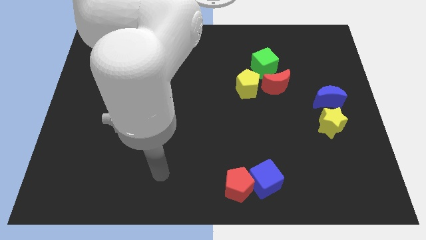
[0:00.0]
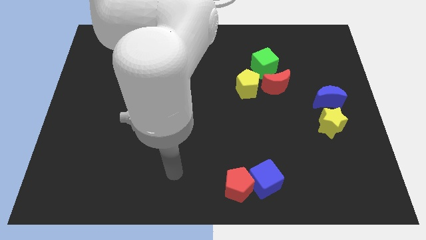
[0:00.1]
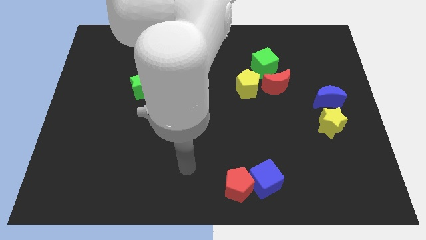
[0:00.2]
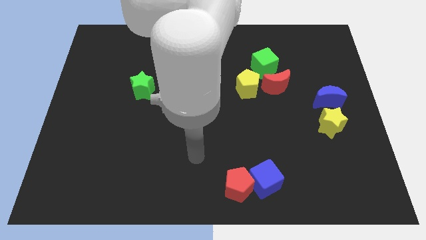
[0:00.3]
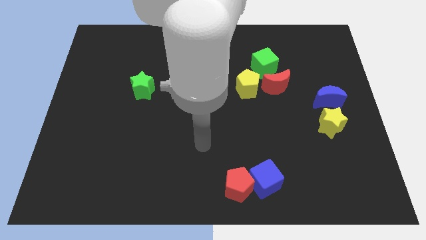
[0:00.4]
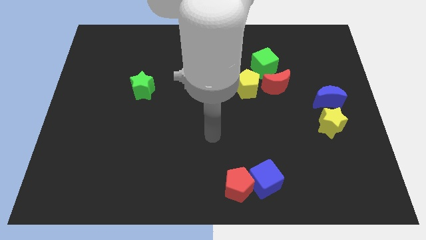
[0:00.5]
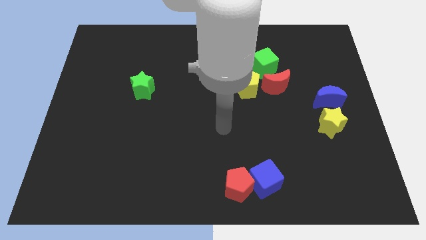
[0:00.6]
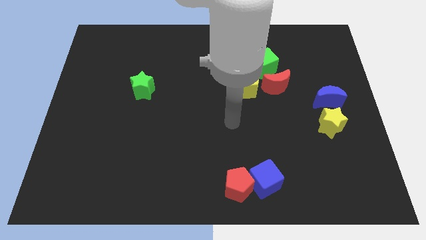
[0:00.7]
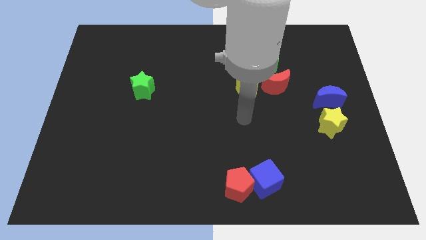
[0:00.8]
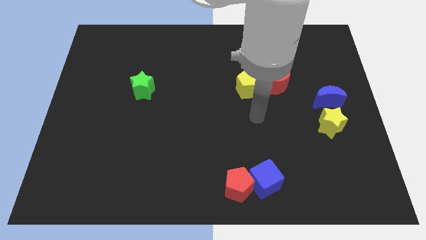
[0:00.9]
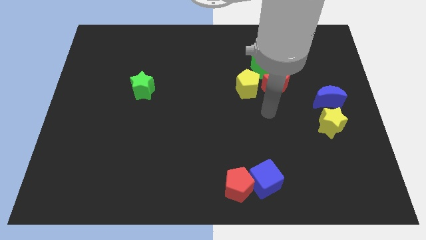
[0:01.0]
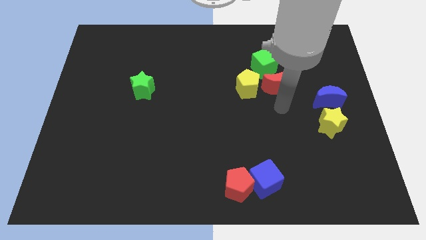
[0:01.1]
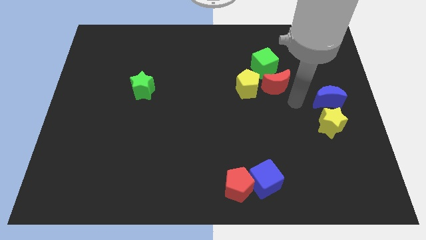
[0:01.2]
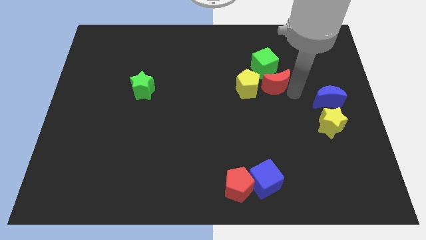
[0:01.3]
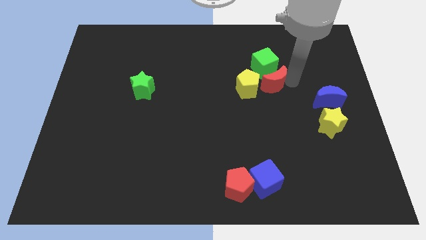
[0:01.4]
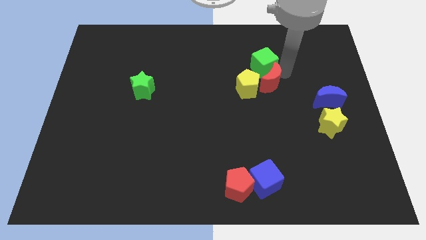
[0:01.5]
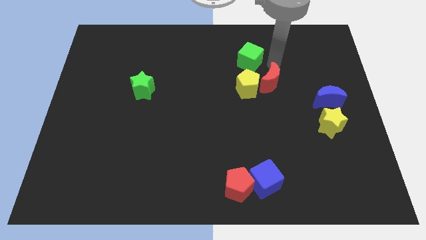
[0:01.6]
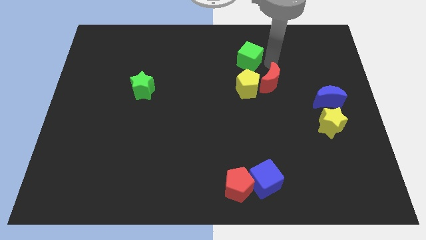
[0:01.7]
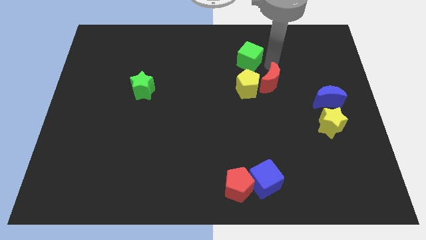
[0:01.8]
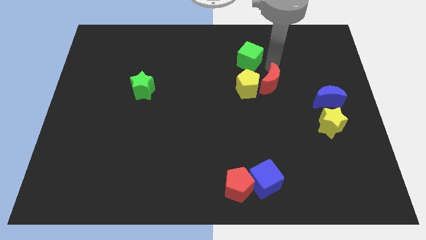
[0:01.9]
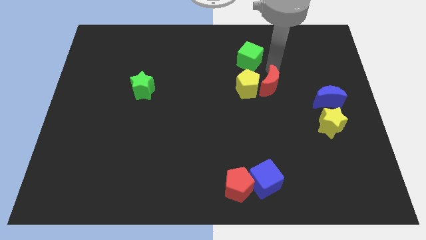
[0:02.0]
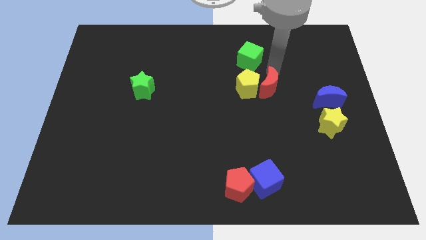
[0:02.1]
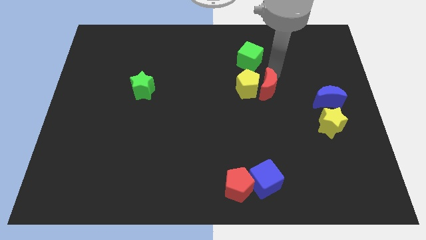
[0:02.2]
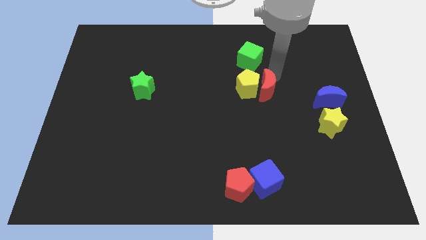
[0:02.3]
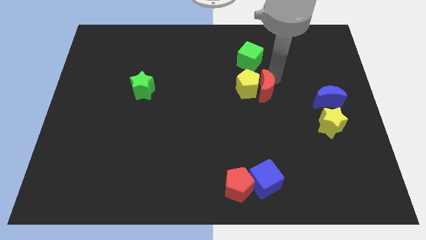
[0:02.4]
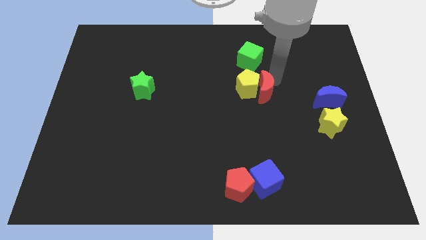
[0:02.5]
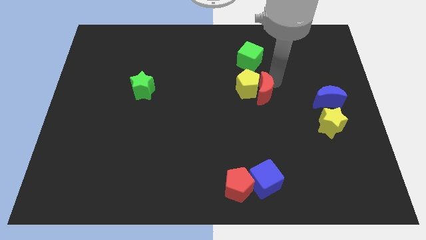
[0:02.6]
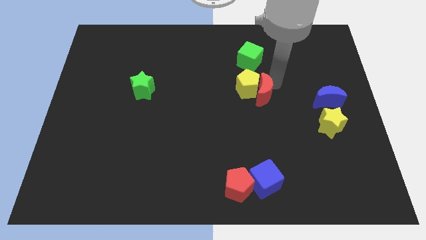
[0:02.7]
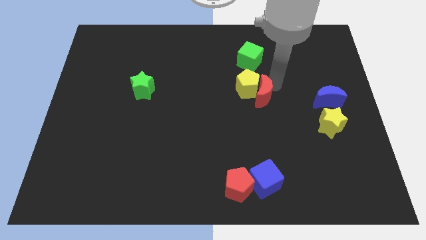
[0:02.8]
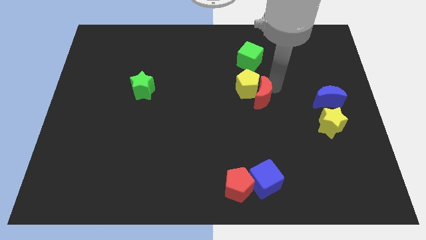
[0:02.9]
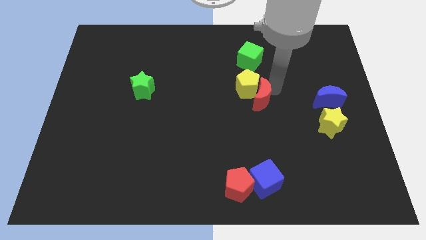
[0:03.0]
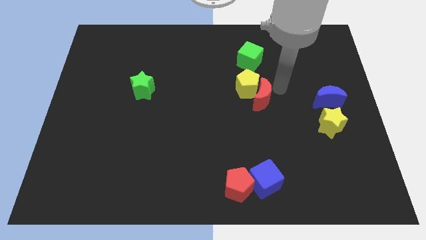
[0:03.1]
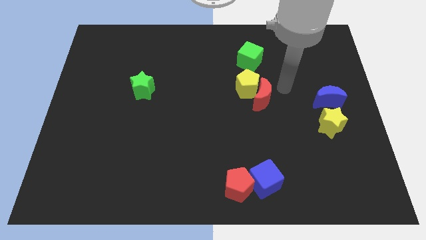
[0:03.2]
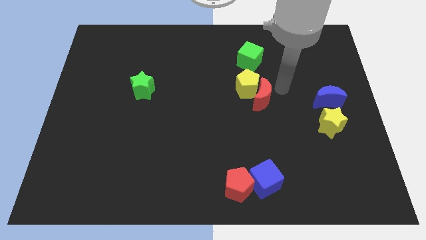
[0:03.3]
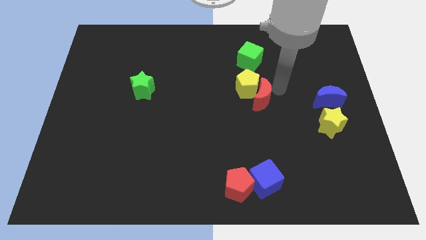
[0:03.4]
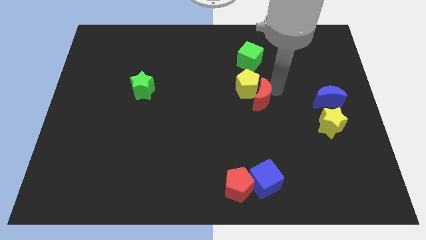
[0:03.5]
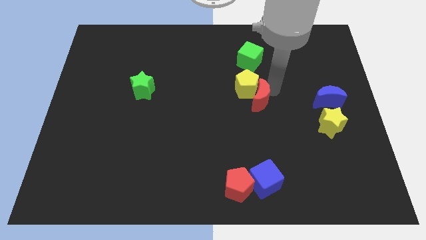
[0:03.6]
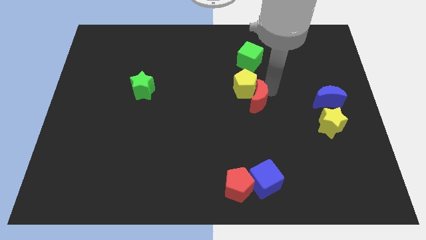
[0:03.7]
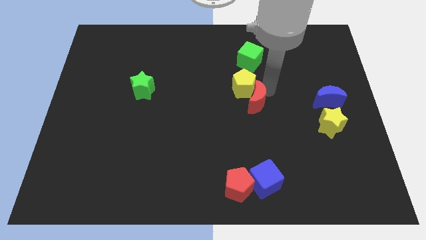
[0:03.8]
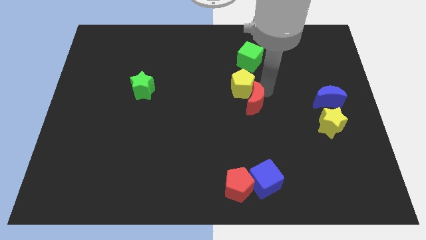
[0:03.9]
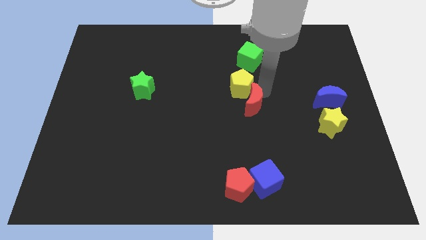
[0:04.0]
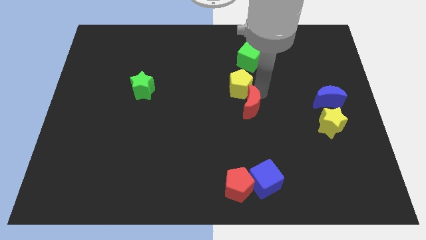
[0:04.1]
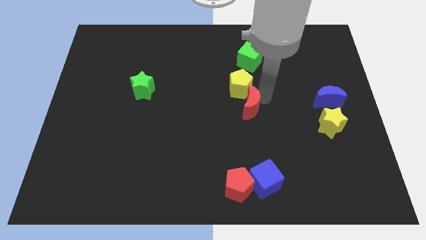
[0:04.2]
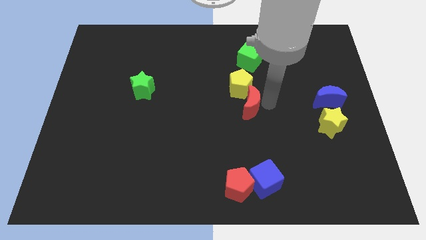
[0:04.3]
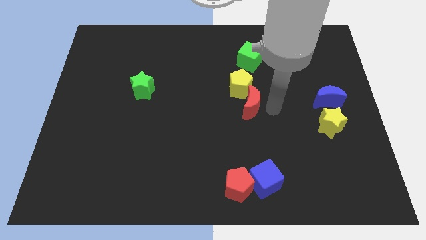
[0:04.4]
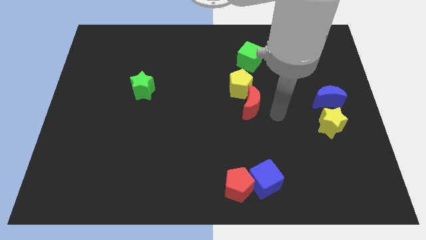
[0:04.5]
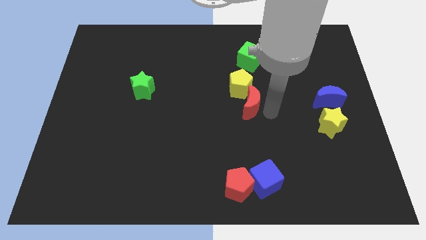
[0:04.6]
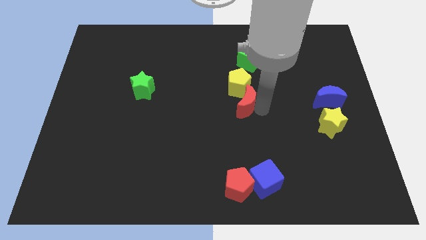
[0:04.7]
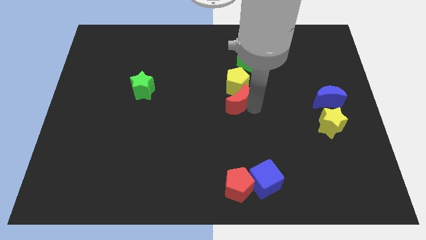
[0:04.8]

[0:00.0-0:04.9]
push the red moon left somewhat

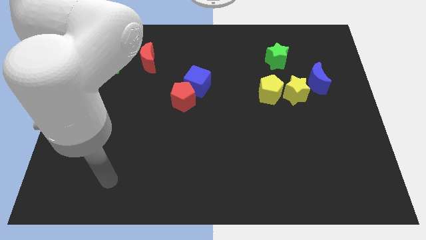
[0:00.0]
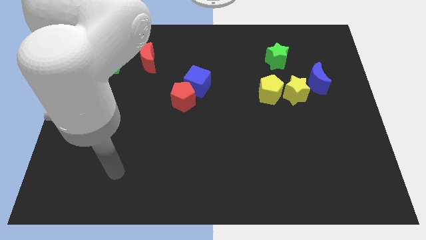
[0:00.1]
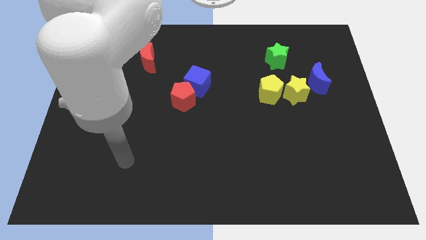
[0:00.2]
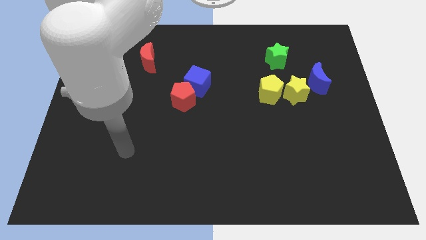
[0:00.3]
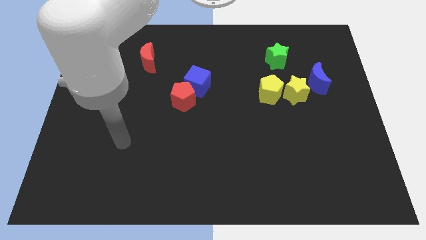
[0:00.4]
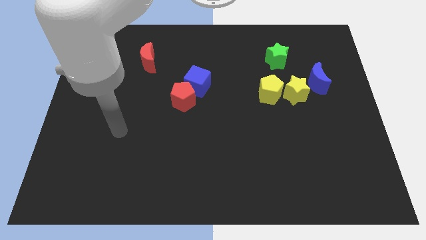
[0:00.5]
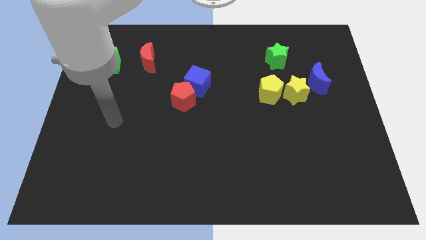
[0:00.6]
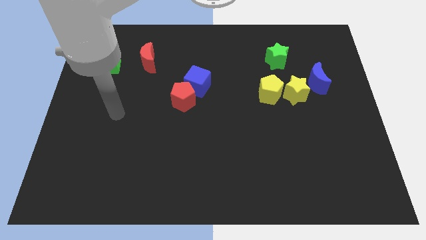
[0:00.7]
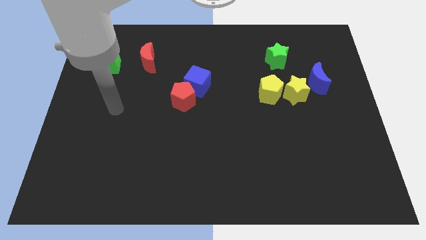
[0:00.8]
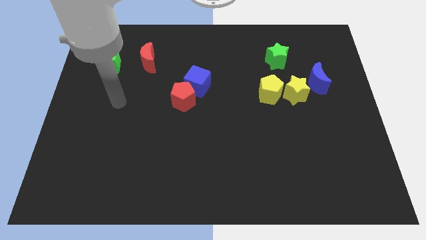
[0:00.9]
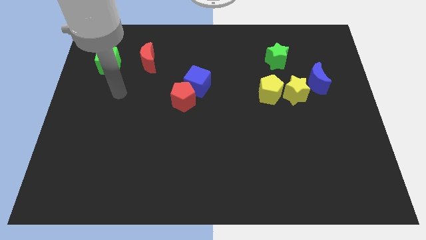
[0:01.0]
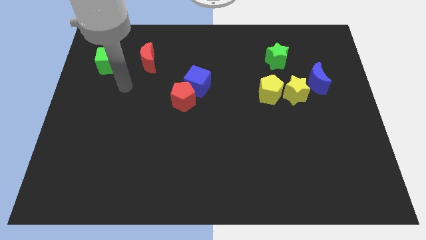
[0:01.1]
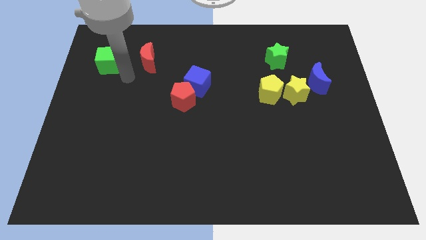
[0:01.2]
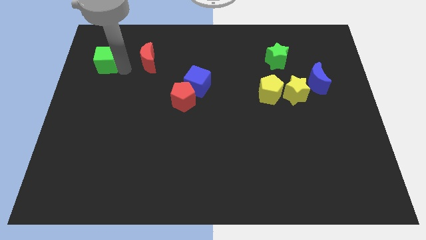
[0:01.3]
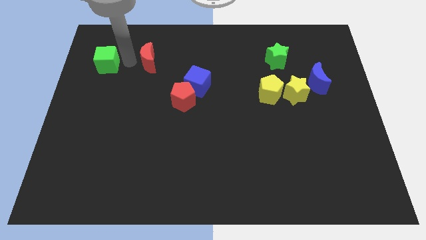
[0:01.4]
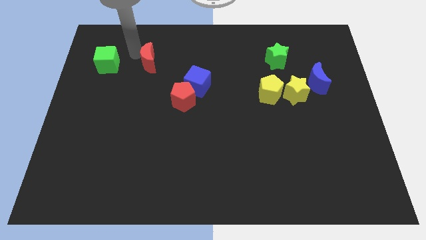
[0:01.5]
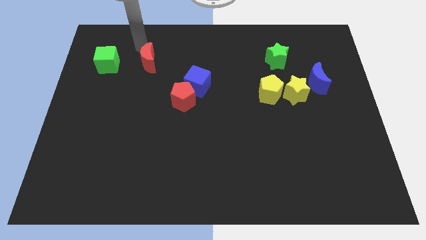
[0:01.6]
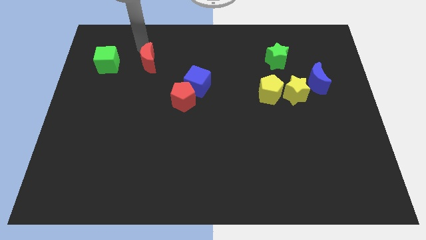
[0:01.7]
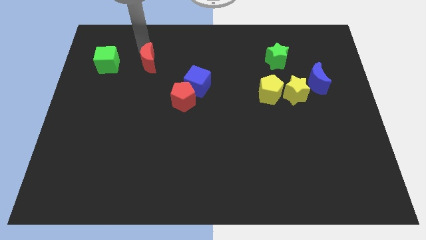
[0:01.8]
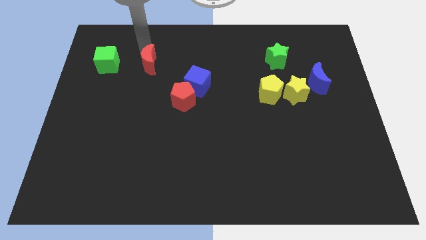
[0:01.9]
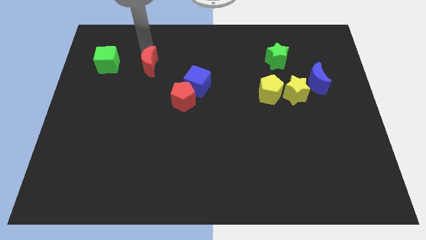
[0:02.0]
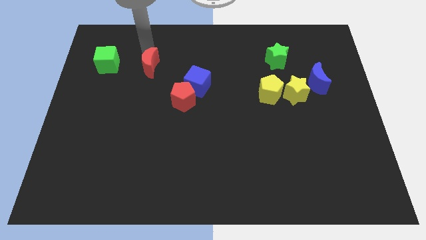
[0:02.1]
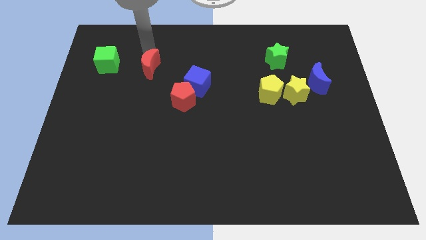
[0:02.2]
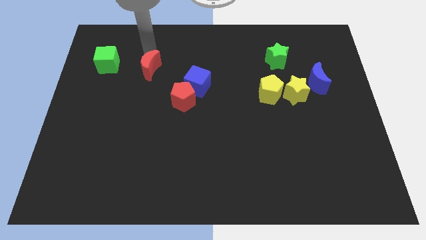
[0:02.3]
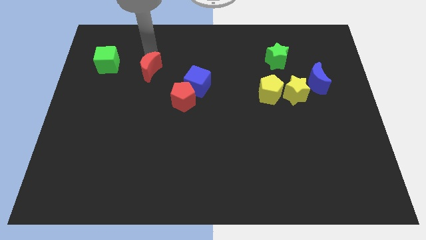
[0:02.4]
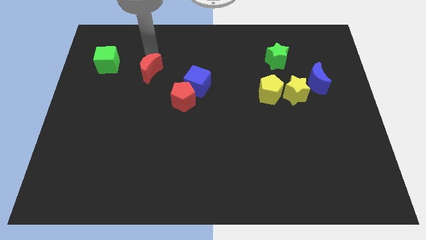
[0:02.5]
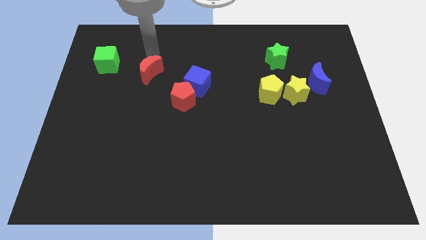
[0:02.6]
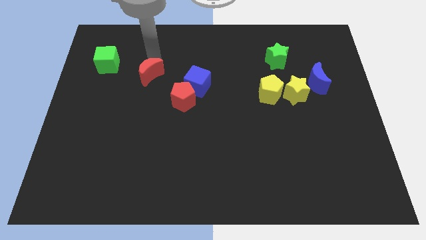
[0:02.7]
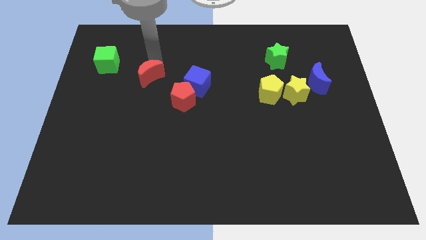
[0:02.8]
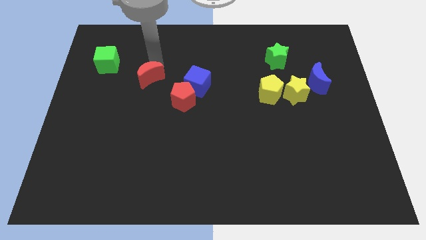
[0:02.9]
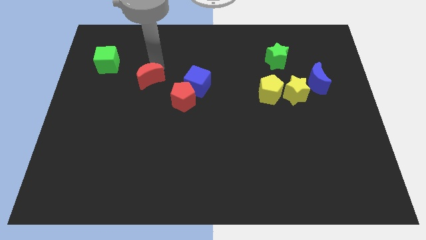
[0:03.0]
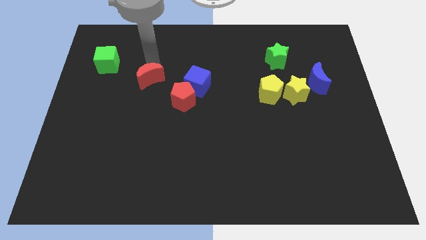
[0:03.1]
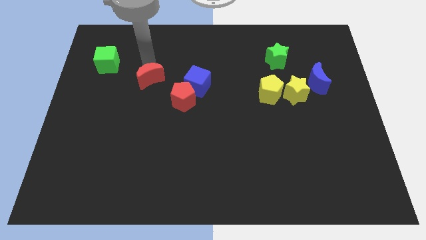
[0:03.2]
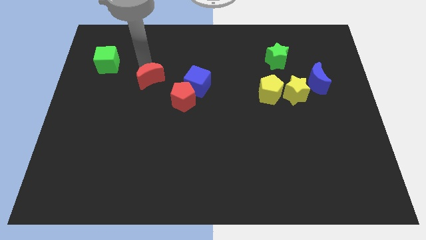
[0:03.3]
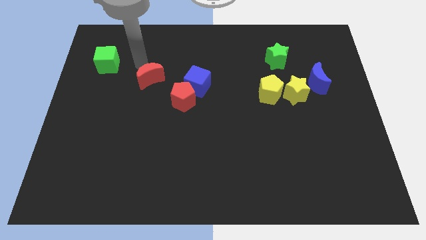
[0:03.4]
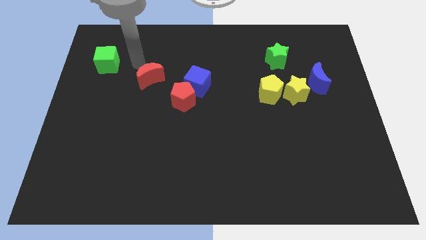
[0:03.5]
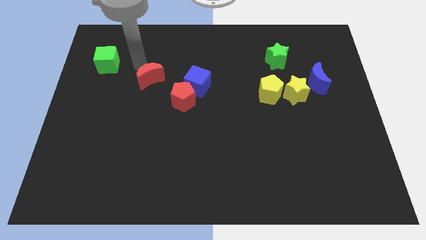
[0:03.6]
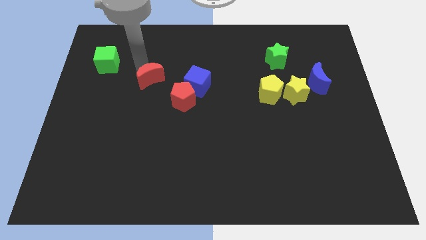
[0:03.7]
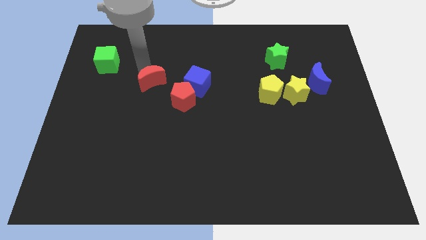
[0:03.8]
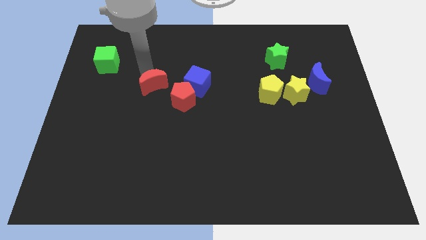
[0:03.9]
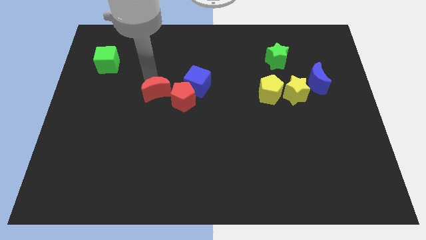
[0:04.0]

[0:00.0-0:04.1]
push the red moon down and then right a little bit
